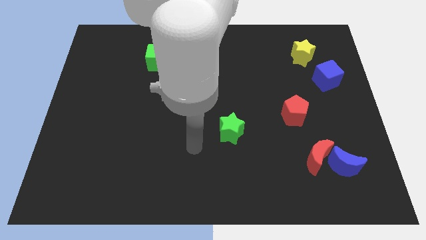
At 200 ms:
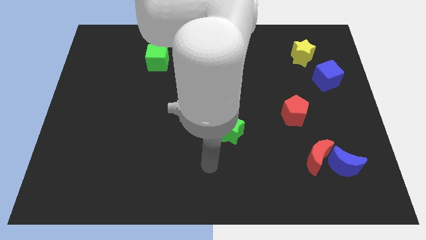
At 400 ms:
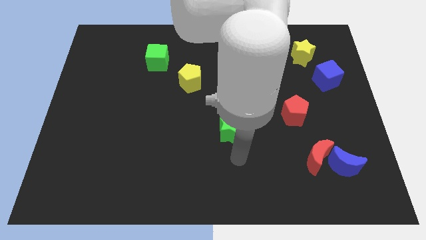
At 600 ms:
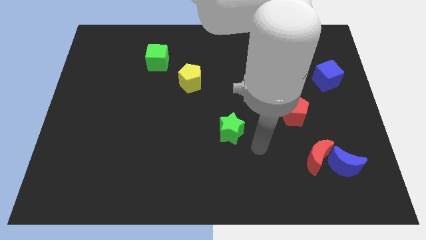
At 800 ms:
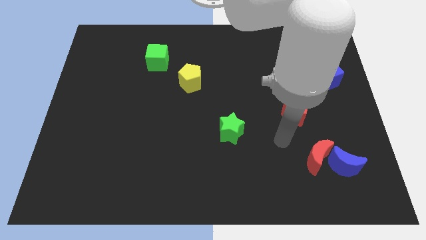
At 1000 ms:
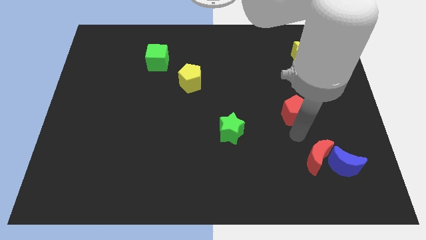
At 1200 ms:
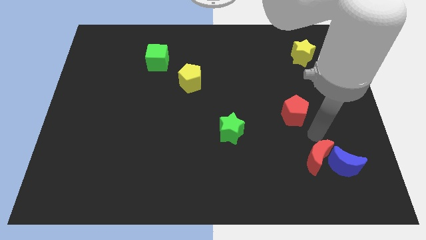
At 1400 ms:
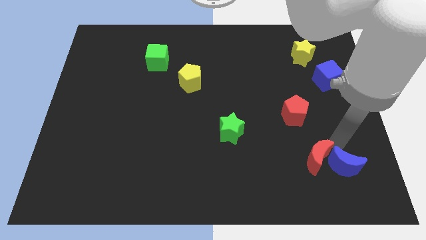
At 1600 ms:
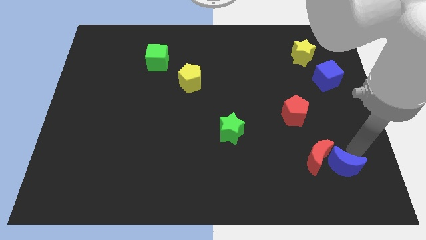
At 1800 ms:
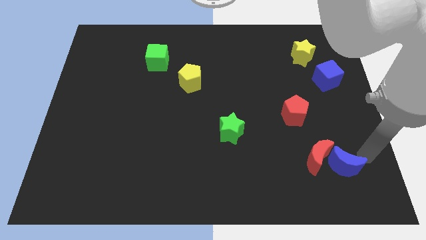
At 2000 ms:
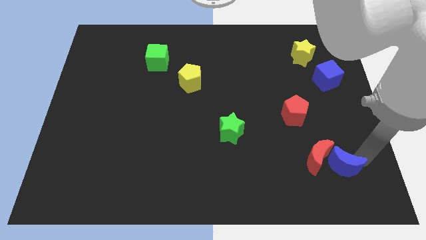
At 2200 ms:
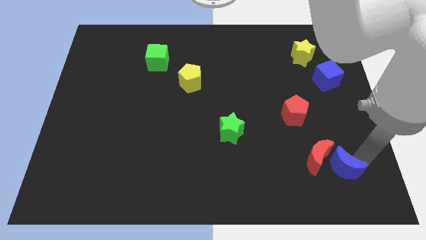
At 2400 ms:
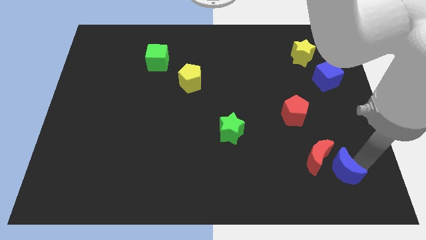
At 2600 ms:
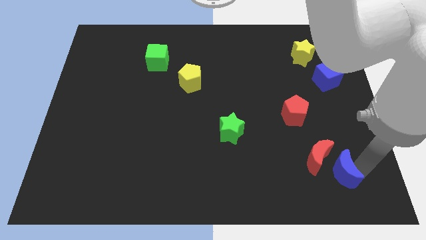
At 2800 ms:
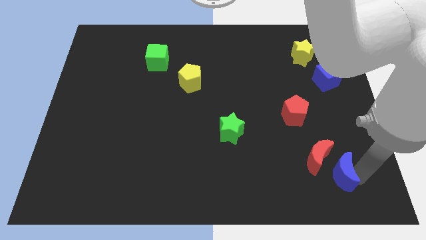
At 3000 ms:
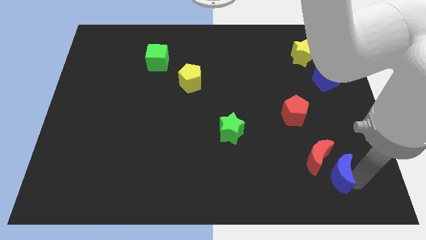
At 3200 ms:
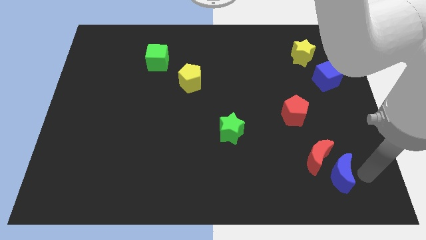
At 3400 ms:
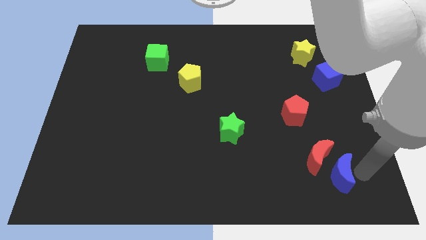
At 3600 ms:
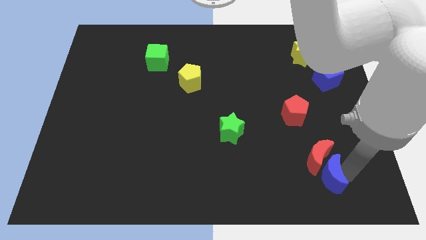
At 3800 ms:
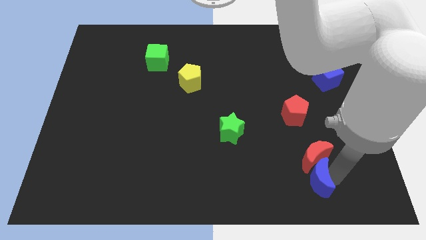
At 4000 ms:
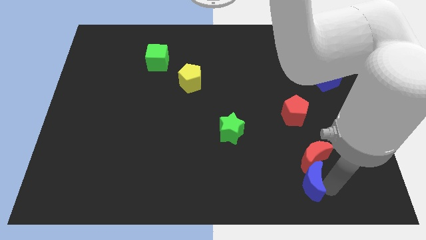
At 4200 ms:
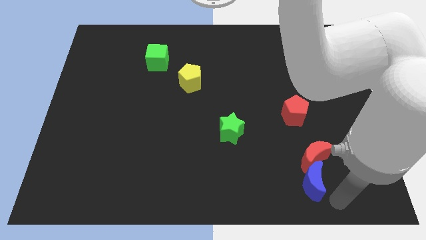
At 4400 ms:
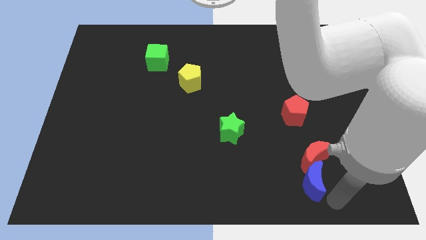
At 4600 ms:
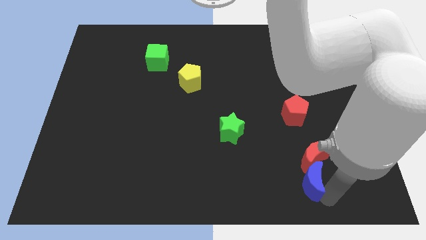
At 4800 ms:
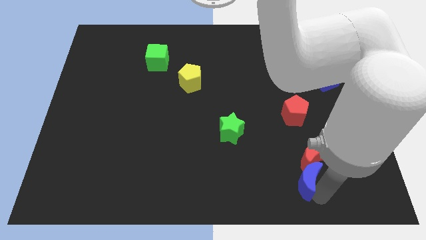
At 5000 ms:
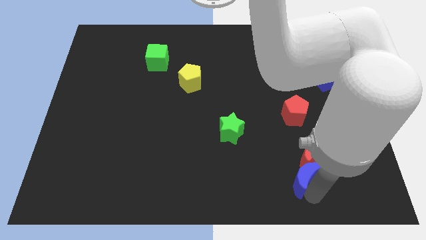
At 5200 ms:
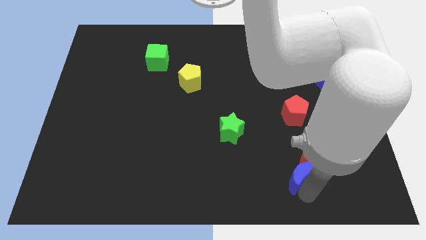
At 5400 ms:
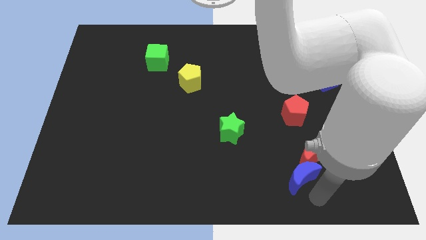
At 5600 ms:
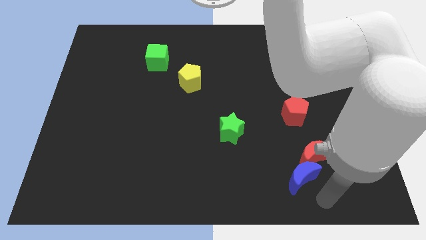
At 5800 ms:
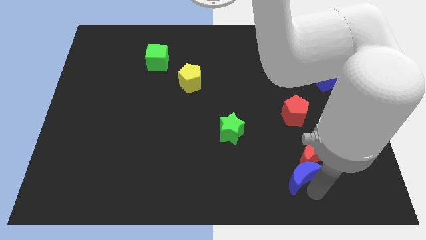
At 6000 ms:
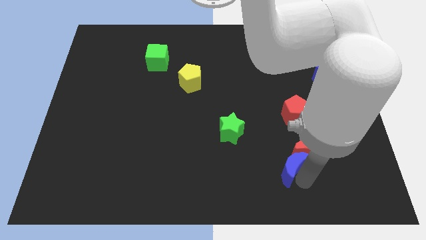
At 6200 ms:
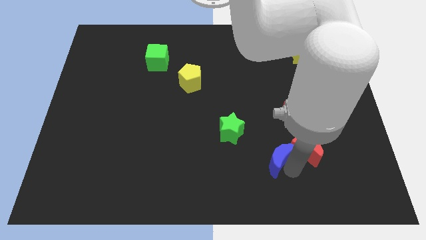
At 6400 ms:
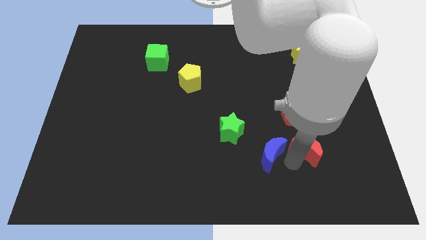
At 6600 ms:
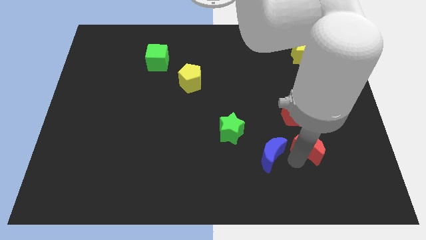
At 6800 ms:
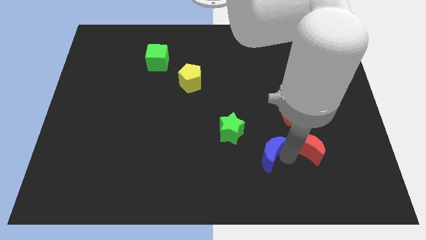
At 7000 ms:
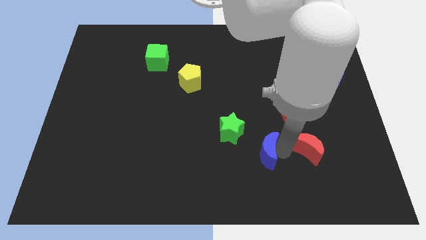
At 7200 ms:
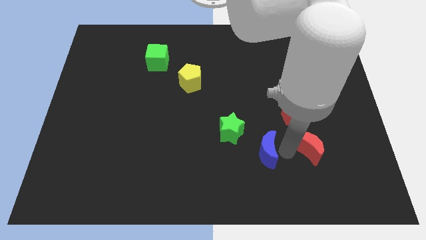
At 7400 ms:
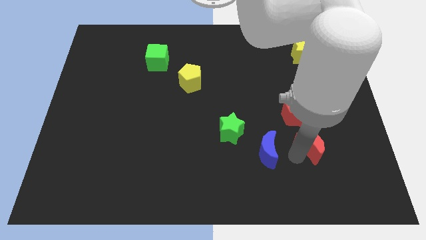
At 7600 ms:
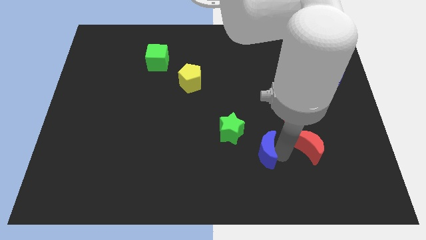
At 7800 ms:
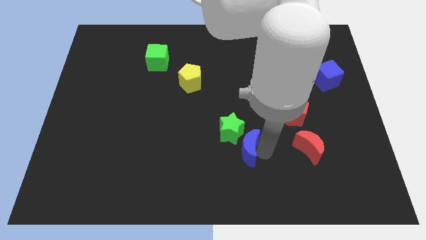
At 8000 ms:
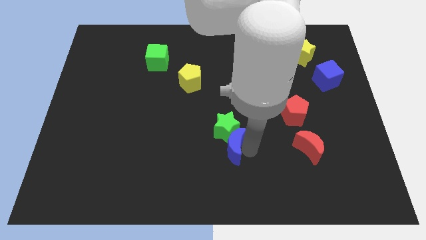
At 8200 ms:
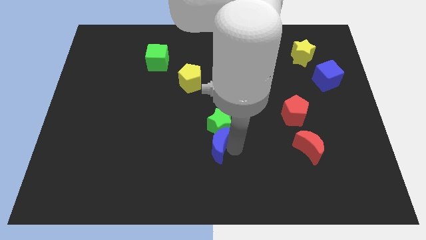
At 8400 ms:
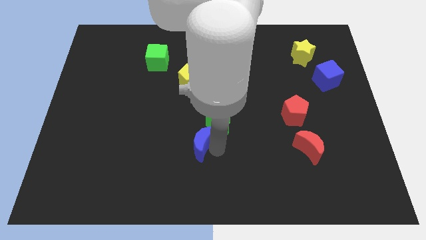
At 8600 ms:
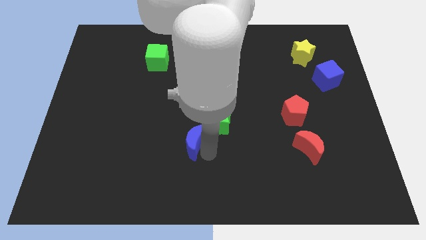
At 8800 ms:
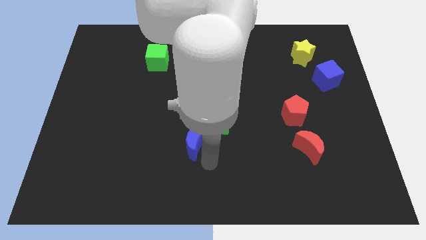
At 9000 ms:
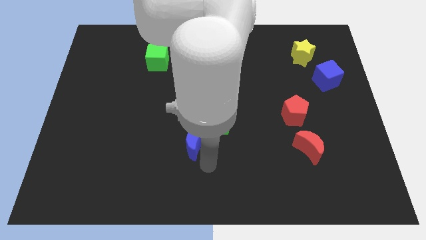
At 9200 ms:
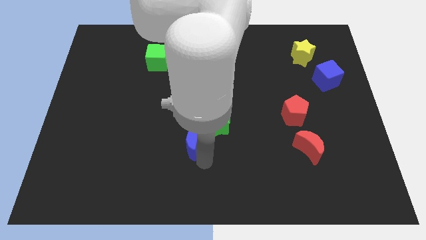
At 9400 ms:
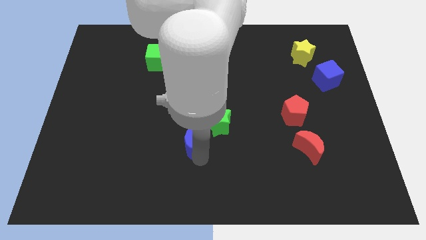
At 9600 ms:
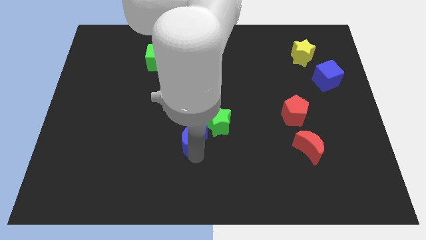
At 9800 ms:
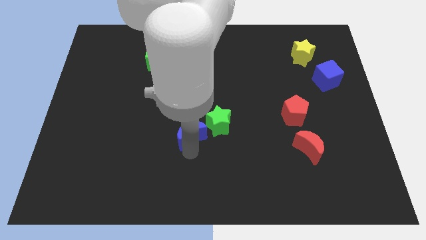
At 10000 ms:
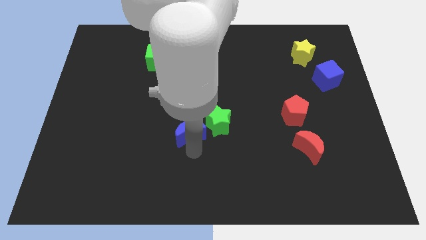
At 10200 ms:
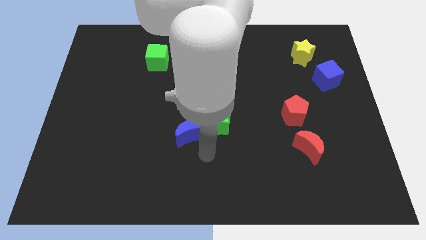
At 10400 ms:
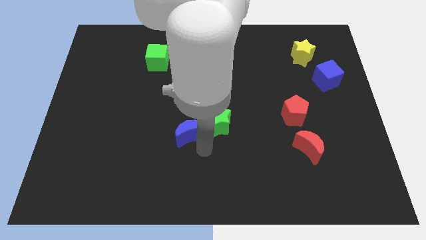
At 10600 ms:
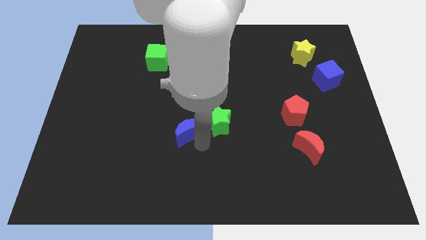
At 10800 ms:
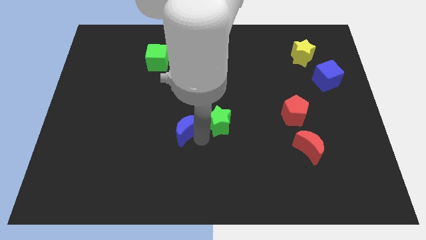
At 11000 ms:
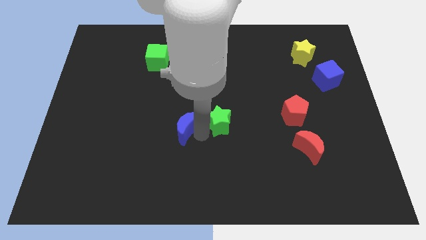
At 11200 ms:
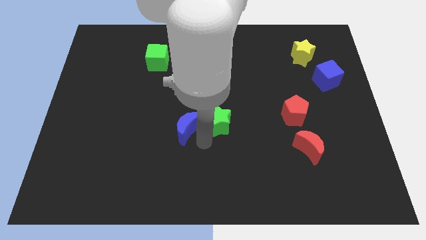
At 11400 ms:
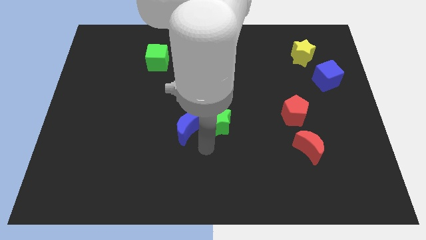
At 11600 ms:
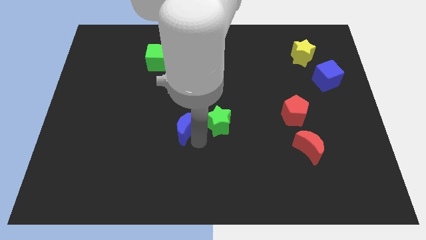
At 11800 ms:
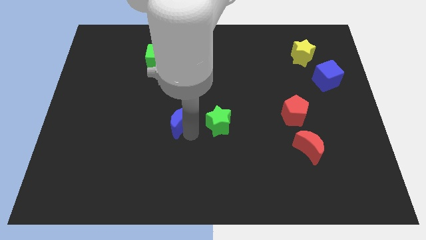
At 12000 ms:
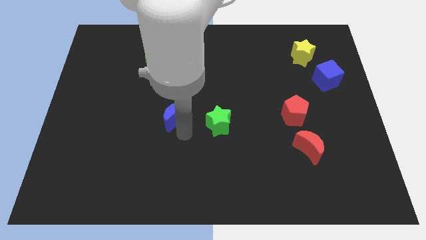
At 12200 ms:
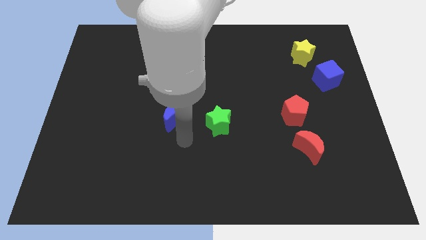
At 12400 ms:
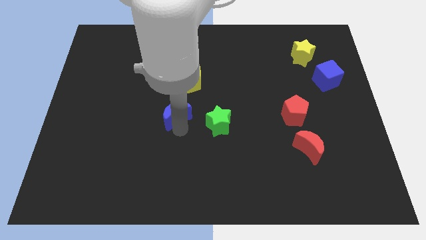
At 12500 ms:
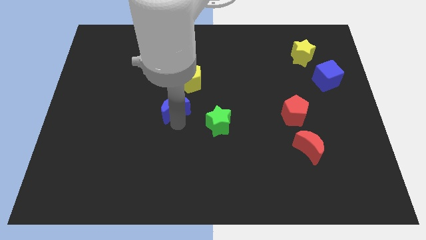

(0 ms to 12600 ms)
put the blue moon to the bottom left side of the yellow pentagon
